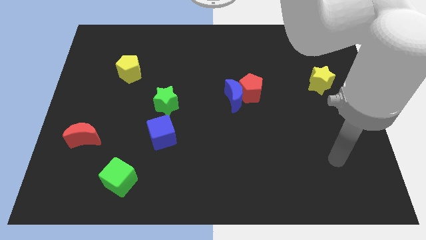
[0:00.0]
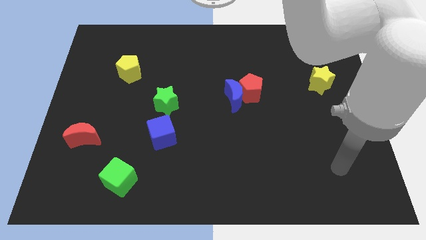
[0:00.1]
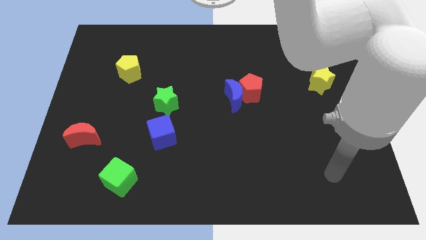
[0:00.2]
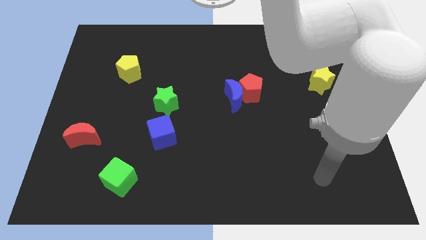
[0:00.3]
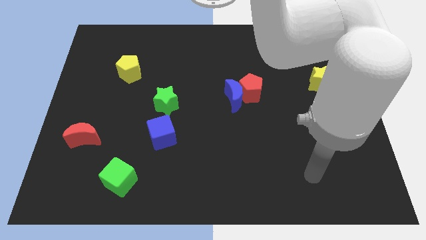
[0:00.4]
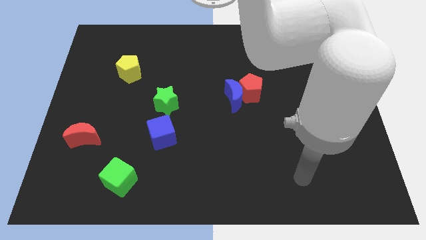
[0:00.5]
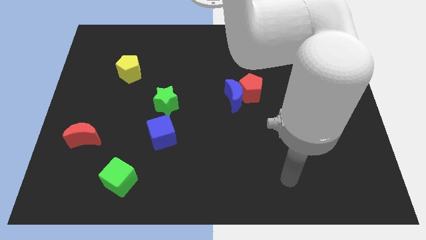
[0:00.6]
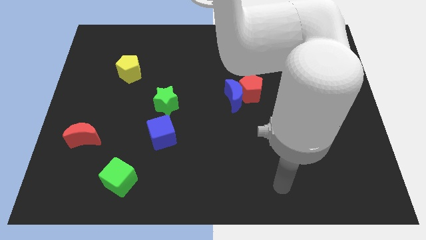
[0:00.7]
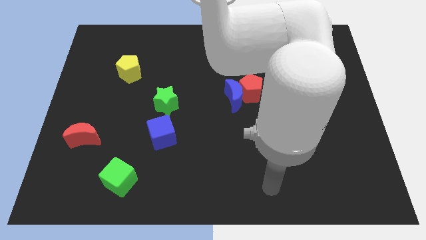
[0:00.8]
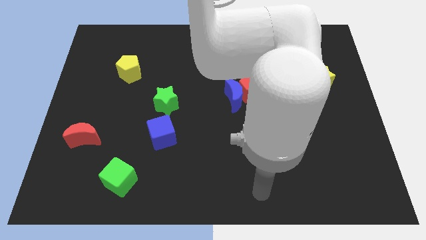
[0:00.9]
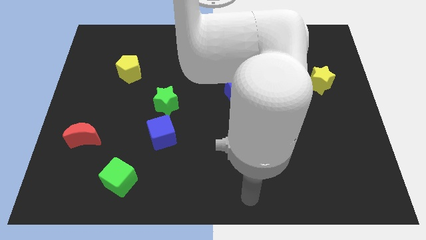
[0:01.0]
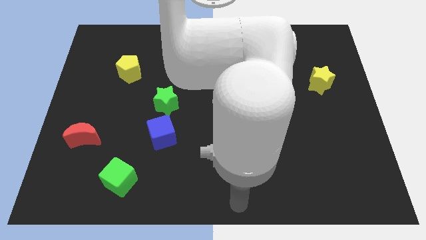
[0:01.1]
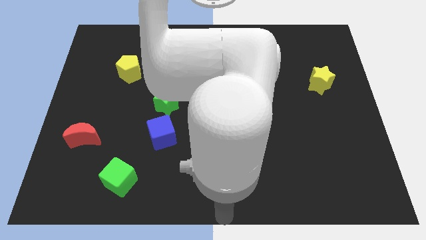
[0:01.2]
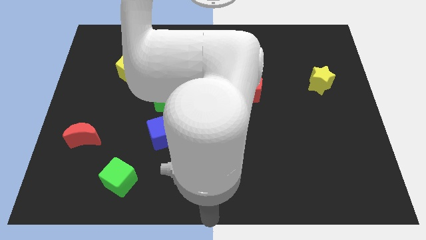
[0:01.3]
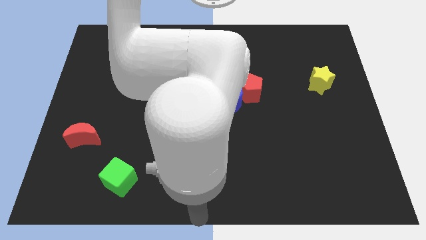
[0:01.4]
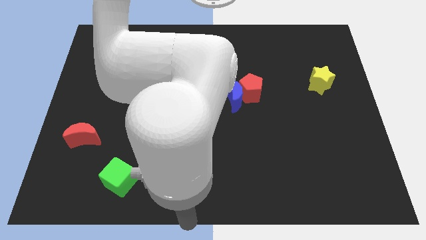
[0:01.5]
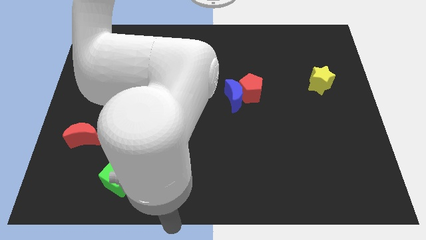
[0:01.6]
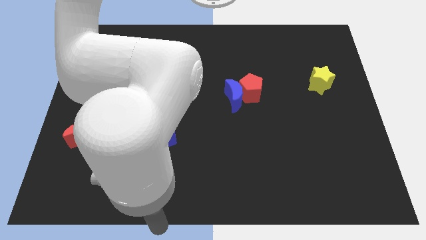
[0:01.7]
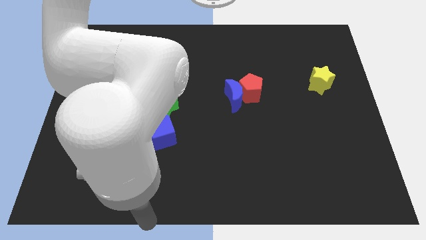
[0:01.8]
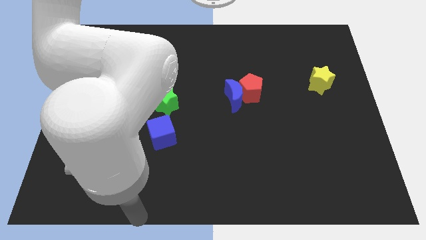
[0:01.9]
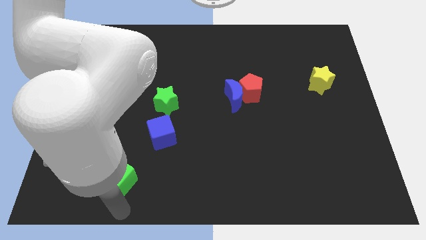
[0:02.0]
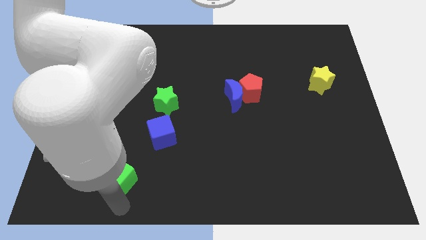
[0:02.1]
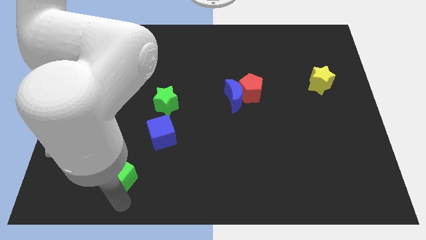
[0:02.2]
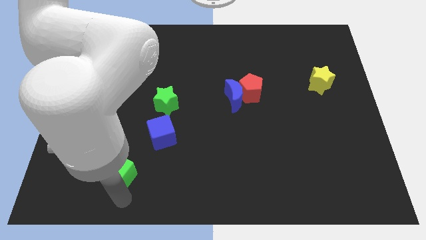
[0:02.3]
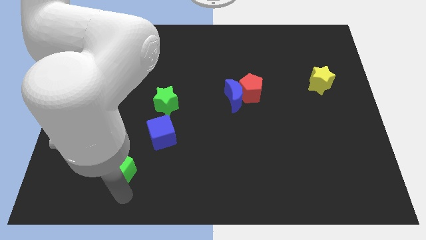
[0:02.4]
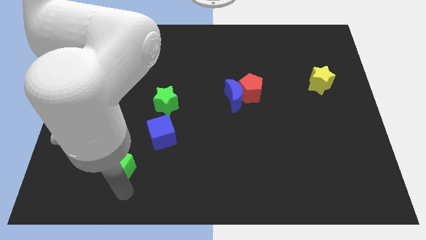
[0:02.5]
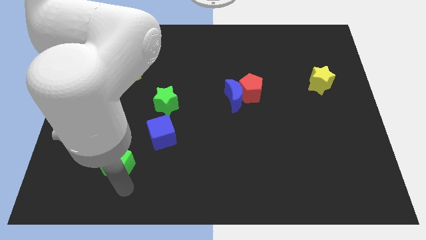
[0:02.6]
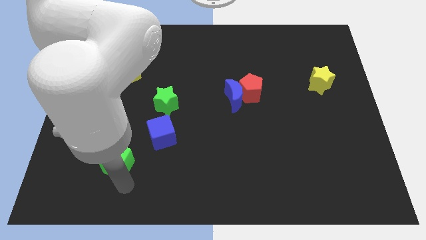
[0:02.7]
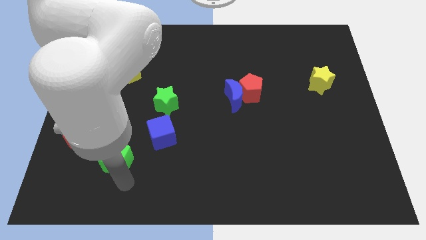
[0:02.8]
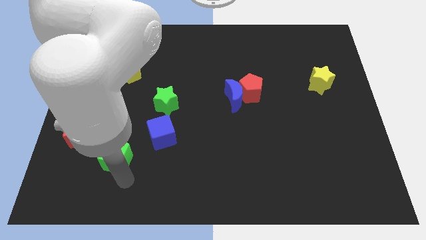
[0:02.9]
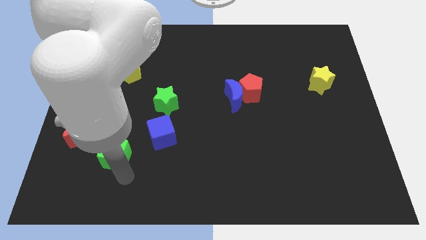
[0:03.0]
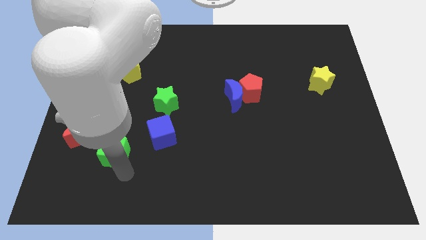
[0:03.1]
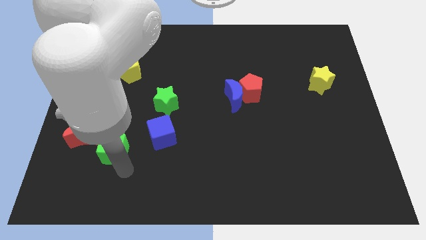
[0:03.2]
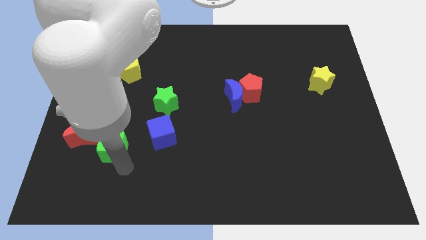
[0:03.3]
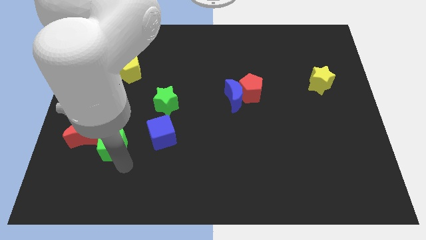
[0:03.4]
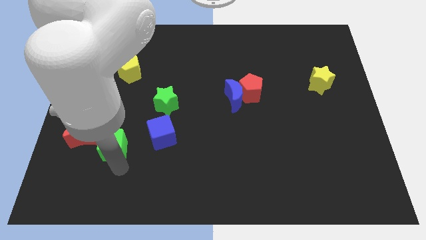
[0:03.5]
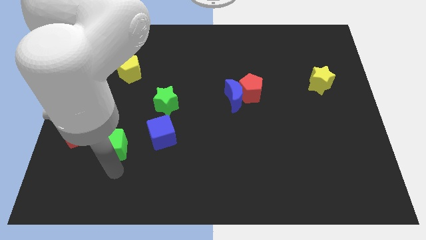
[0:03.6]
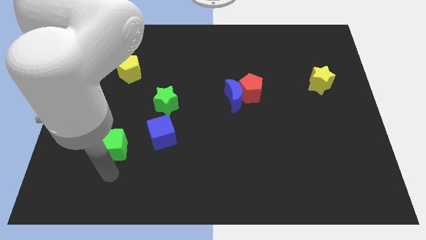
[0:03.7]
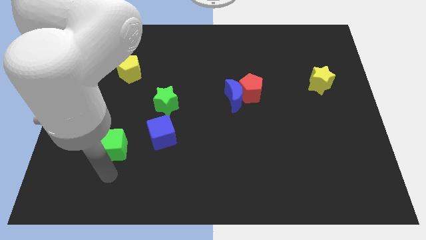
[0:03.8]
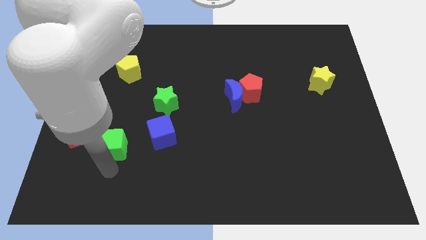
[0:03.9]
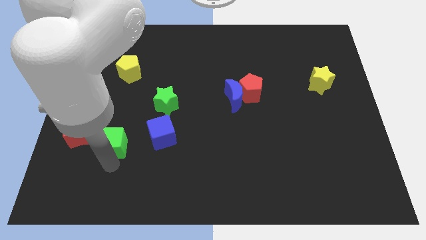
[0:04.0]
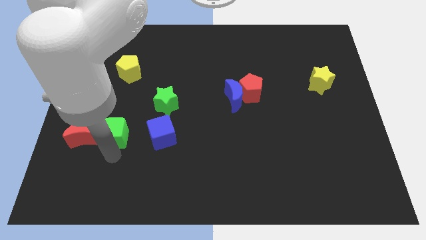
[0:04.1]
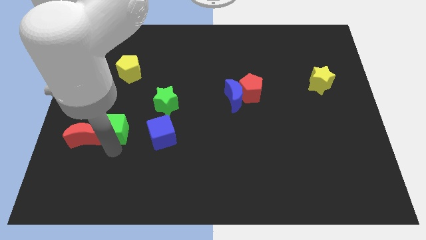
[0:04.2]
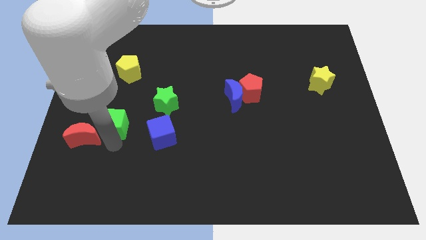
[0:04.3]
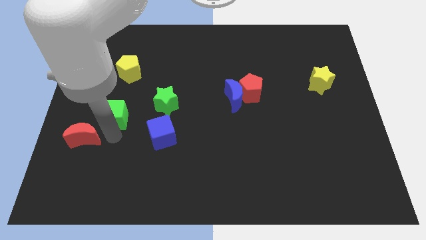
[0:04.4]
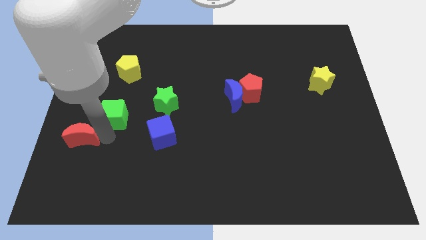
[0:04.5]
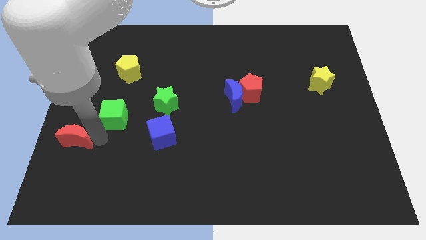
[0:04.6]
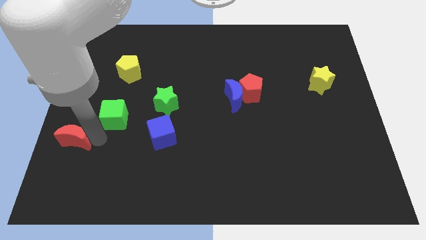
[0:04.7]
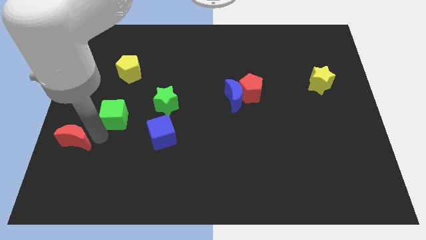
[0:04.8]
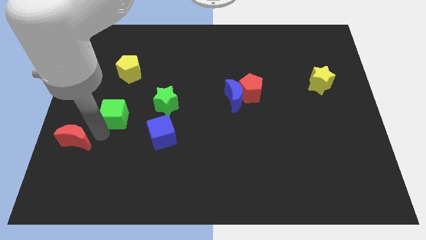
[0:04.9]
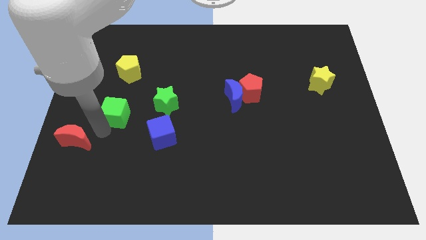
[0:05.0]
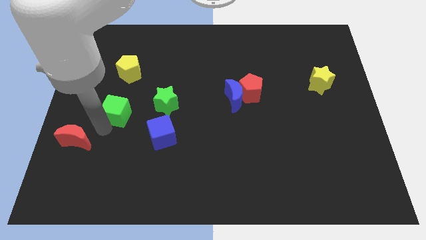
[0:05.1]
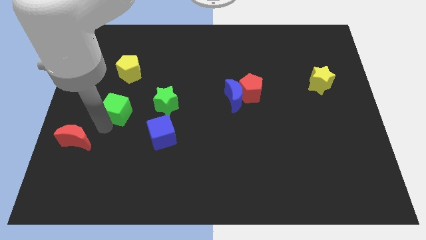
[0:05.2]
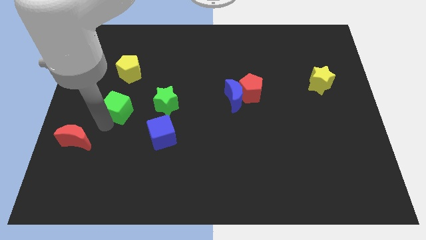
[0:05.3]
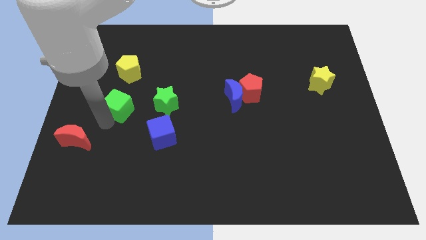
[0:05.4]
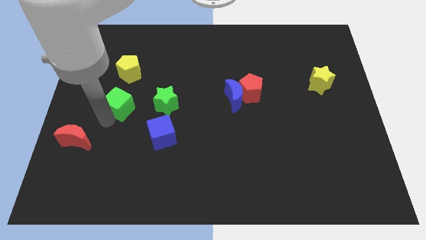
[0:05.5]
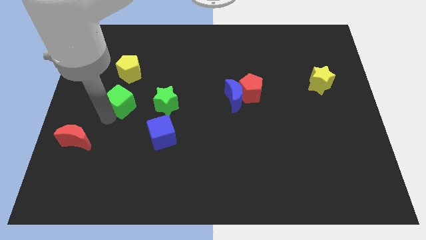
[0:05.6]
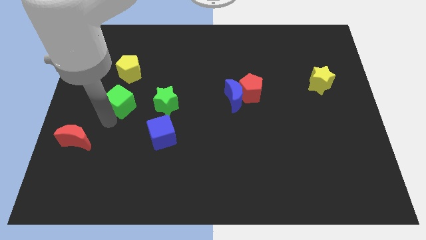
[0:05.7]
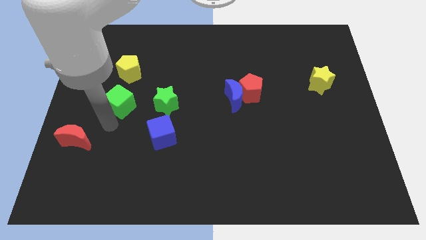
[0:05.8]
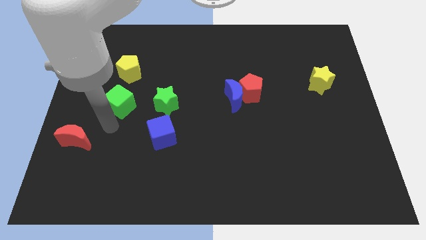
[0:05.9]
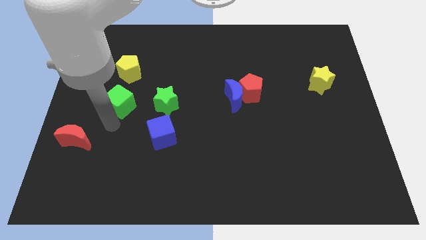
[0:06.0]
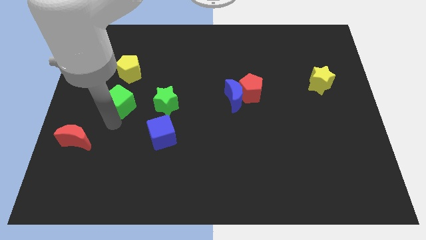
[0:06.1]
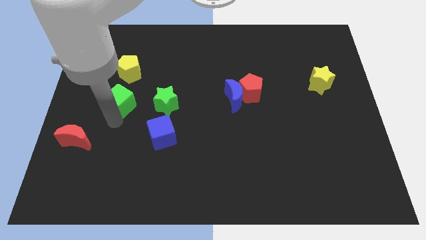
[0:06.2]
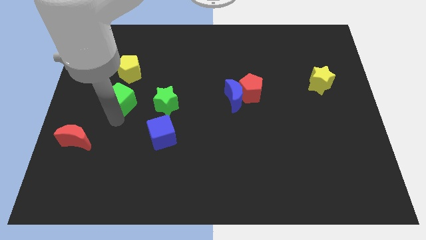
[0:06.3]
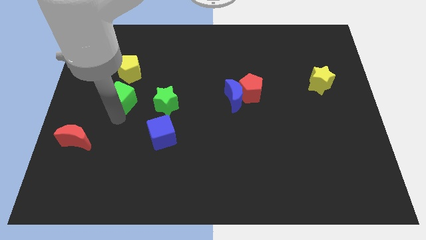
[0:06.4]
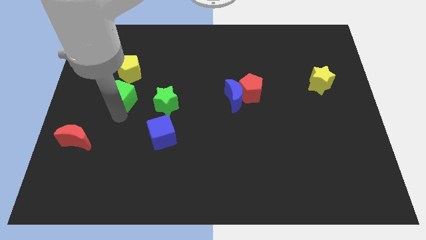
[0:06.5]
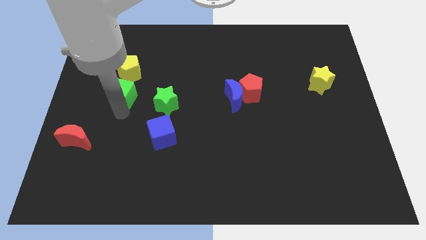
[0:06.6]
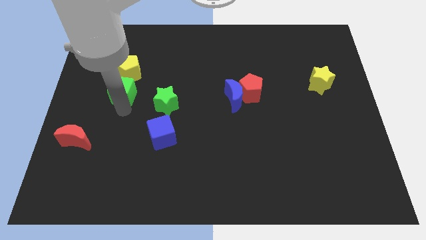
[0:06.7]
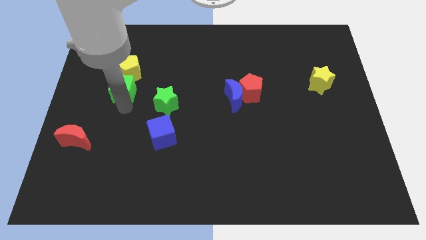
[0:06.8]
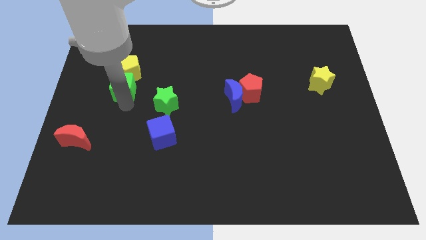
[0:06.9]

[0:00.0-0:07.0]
put the green cube to the yellow pentagon
